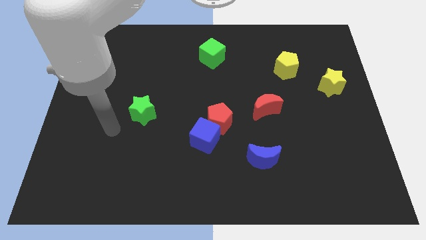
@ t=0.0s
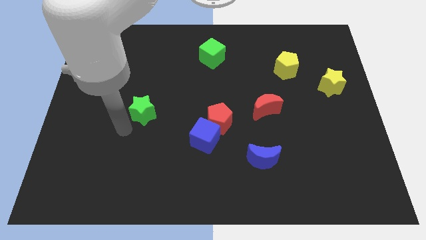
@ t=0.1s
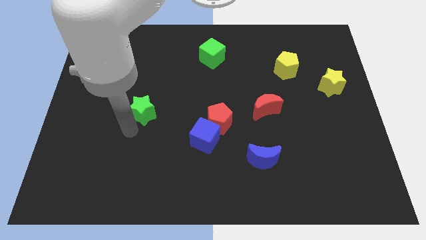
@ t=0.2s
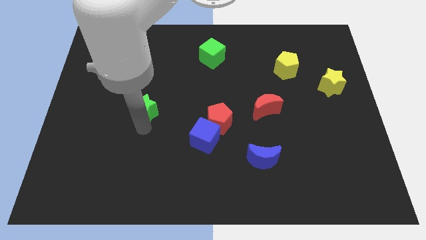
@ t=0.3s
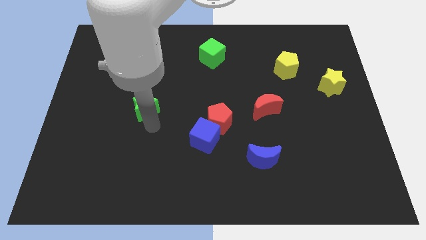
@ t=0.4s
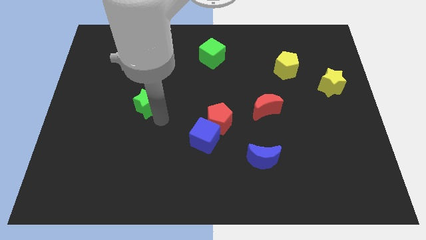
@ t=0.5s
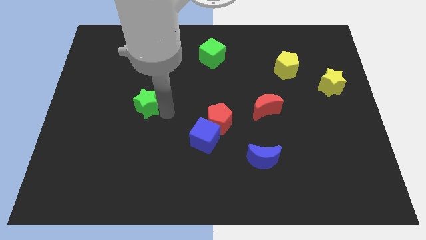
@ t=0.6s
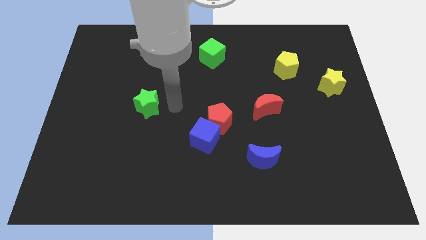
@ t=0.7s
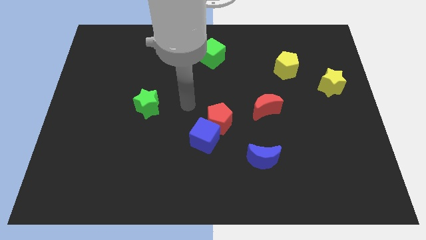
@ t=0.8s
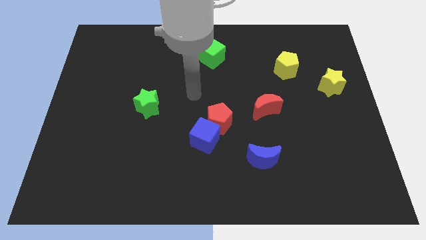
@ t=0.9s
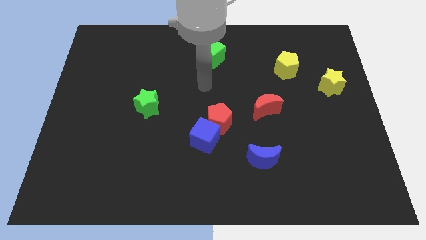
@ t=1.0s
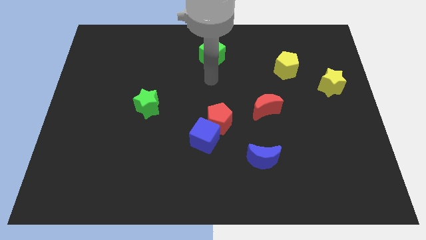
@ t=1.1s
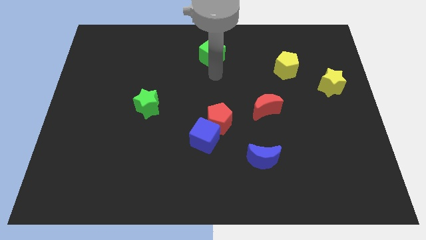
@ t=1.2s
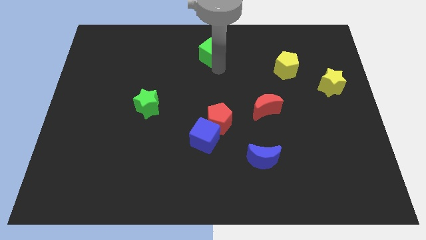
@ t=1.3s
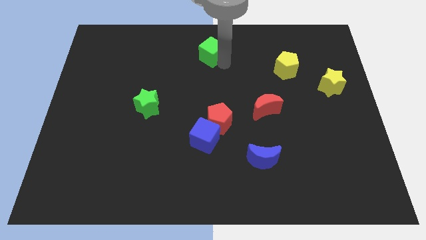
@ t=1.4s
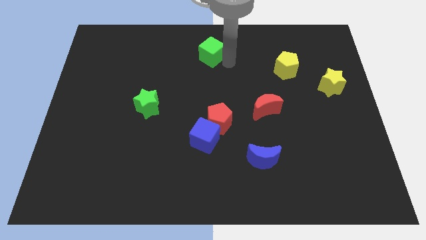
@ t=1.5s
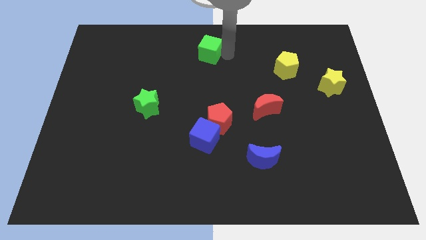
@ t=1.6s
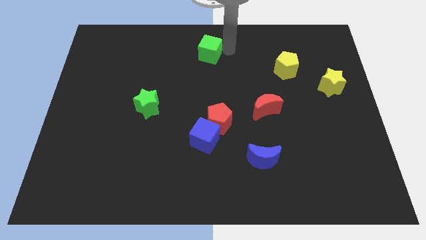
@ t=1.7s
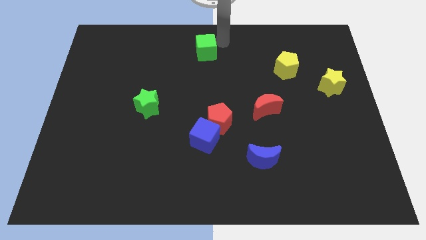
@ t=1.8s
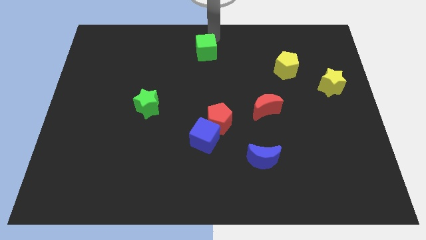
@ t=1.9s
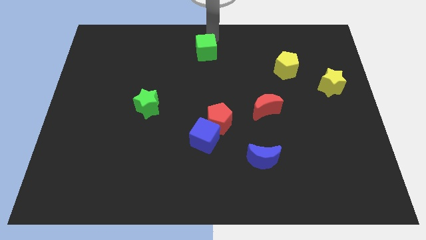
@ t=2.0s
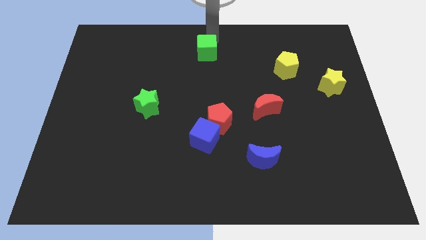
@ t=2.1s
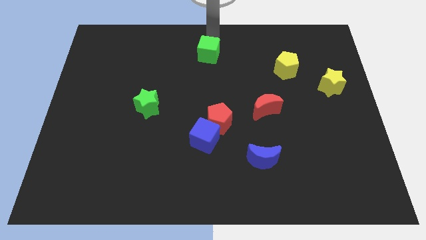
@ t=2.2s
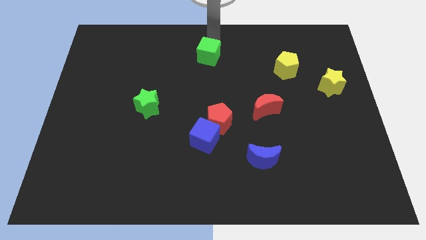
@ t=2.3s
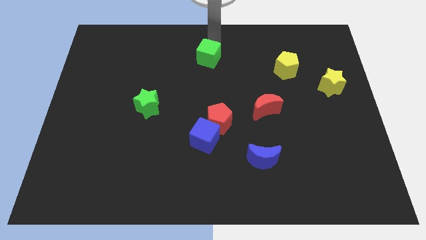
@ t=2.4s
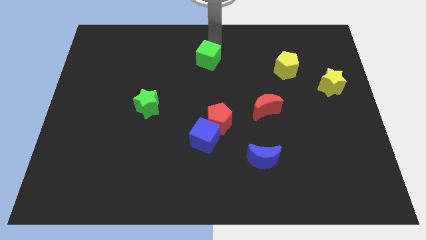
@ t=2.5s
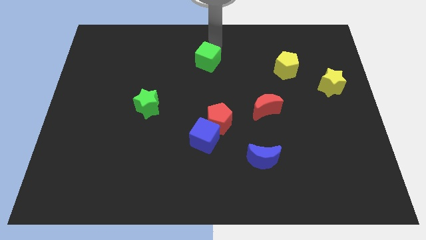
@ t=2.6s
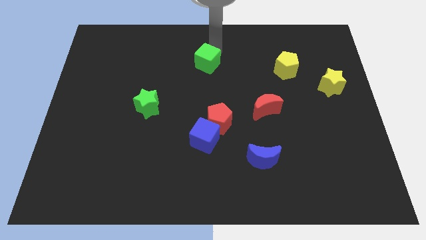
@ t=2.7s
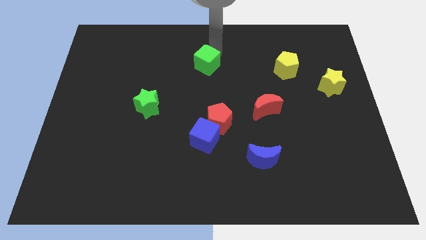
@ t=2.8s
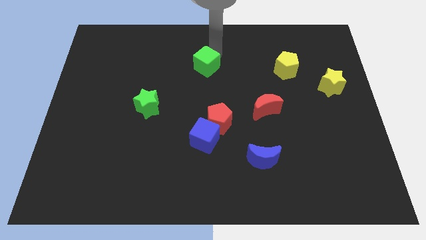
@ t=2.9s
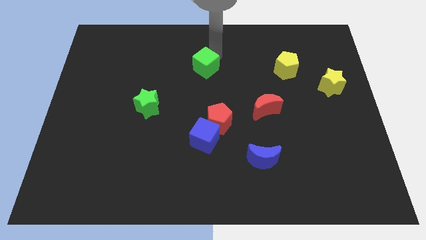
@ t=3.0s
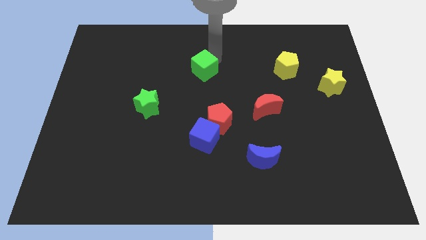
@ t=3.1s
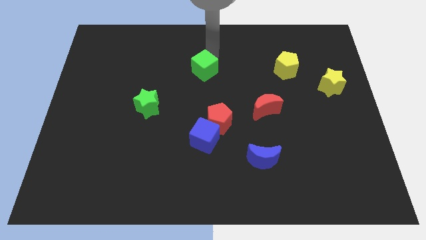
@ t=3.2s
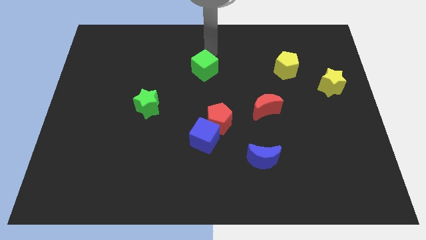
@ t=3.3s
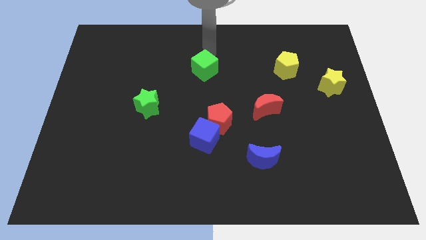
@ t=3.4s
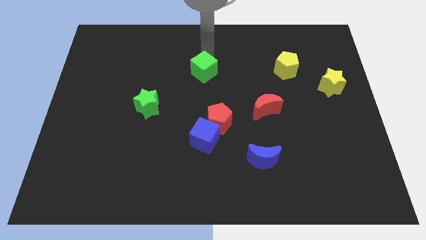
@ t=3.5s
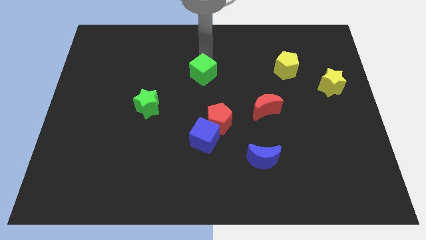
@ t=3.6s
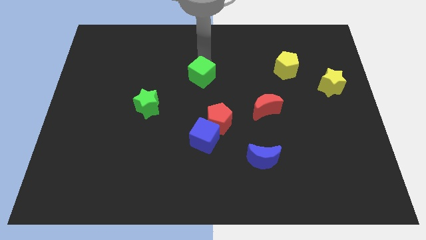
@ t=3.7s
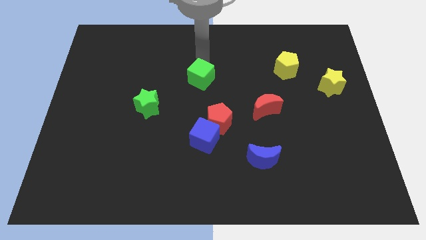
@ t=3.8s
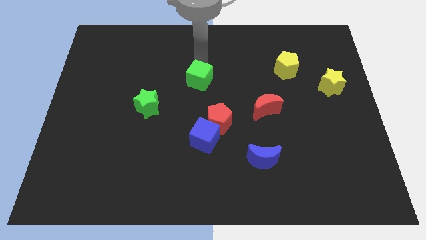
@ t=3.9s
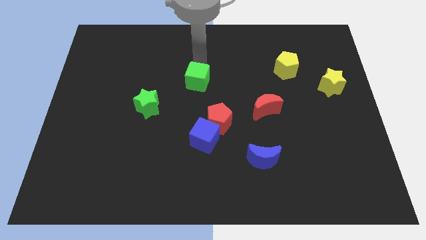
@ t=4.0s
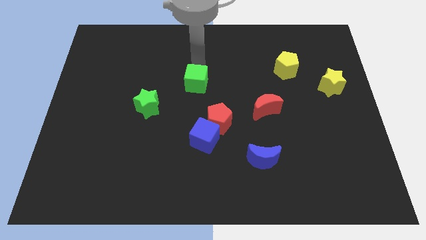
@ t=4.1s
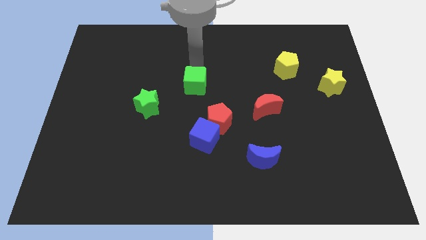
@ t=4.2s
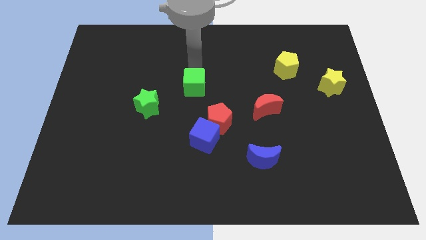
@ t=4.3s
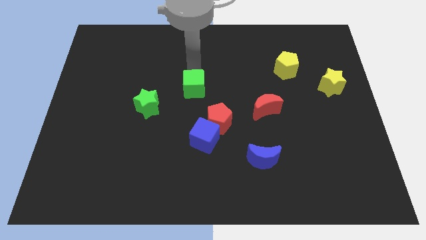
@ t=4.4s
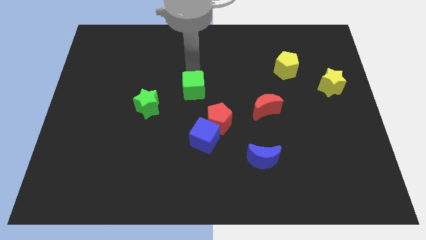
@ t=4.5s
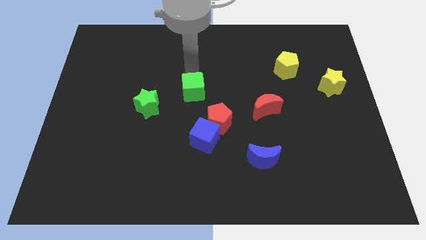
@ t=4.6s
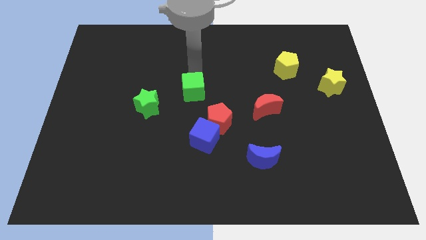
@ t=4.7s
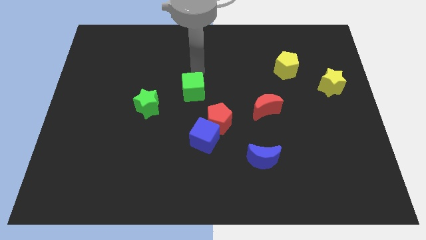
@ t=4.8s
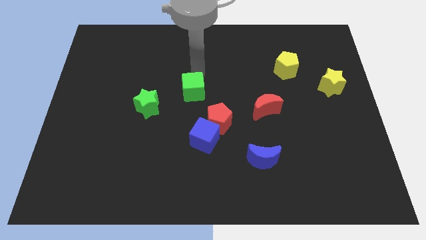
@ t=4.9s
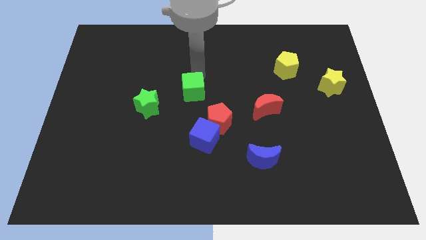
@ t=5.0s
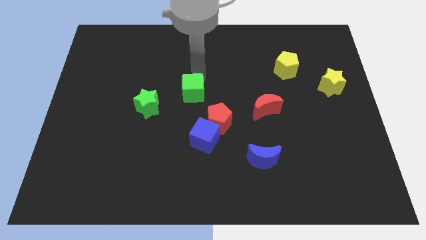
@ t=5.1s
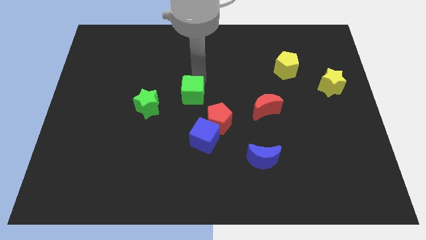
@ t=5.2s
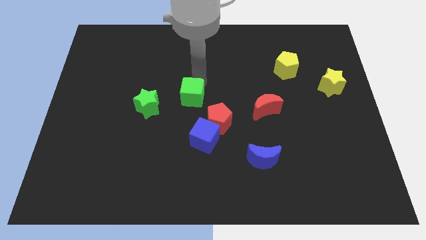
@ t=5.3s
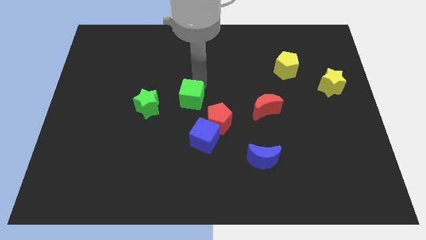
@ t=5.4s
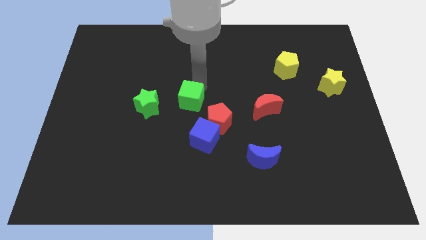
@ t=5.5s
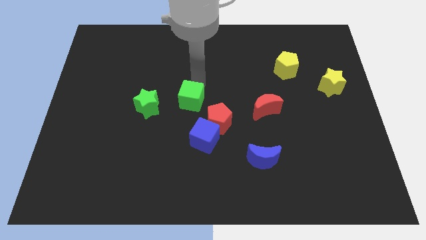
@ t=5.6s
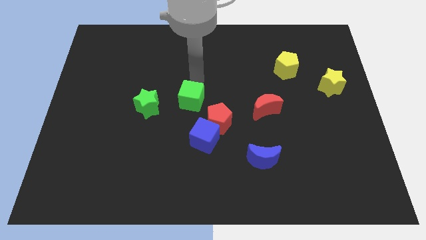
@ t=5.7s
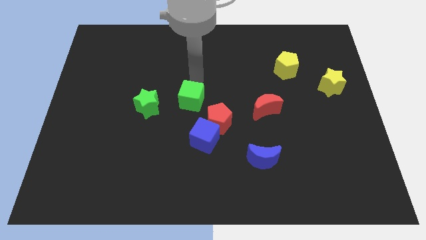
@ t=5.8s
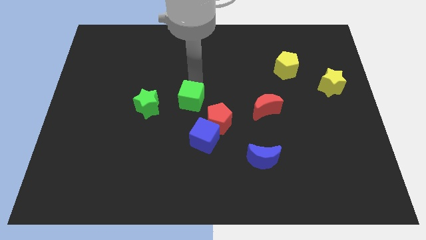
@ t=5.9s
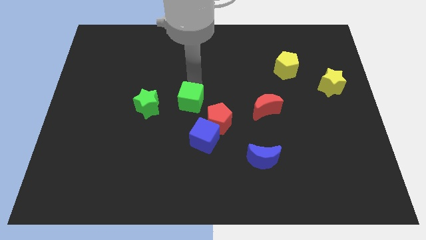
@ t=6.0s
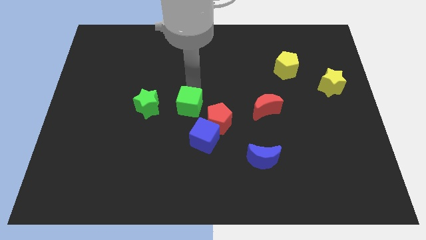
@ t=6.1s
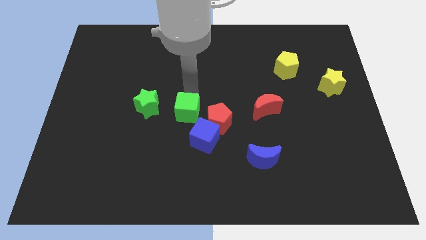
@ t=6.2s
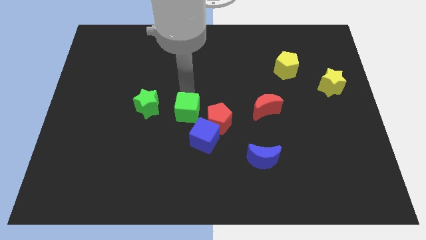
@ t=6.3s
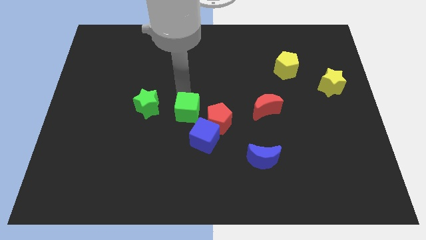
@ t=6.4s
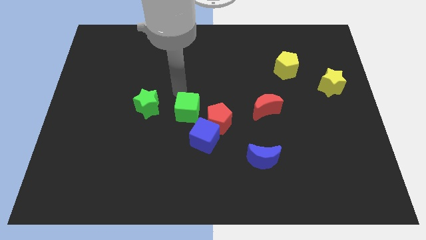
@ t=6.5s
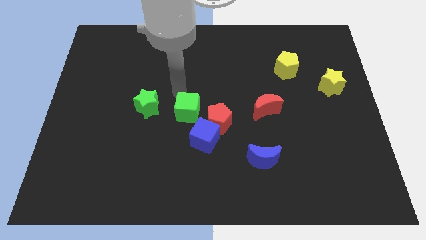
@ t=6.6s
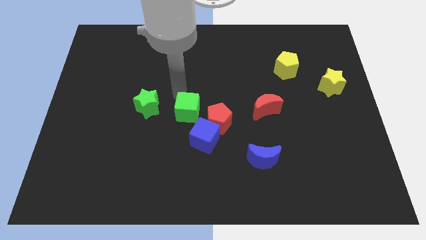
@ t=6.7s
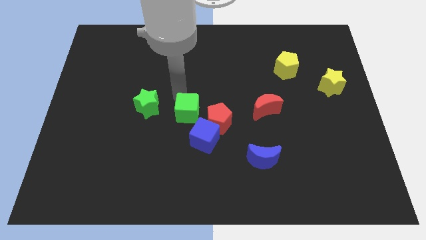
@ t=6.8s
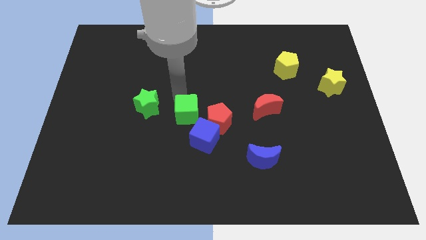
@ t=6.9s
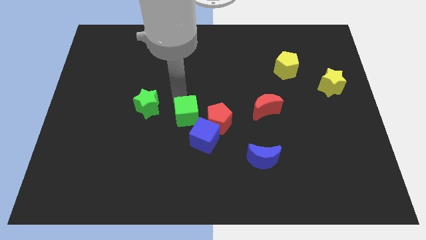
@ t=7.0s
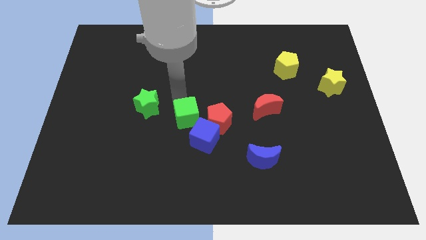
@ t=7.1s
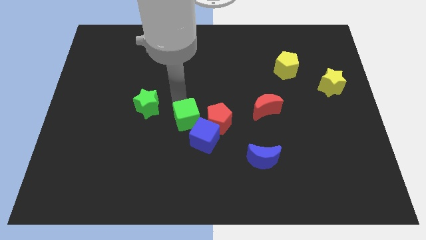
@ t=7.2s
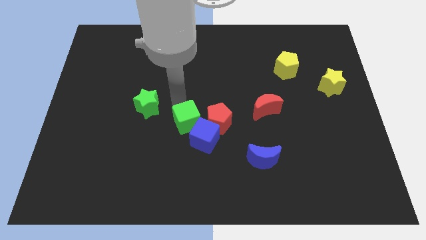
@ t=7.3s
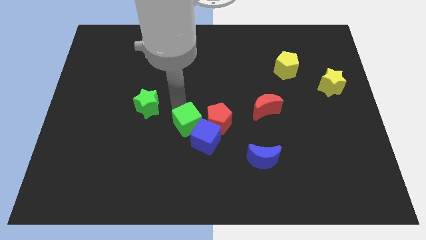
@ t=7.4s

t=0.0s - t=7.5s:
slide the green cube close to the blue cube
